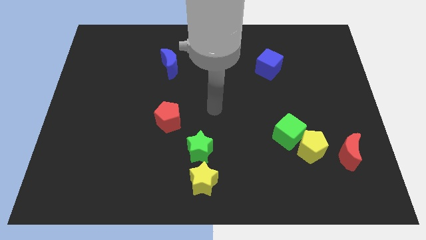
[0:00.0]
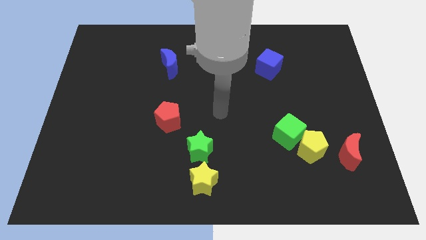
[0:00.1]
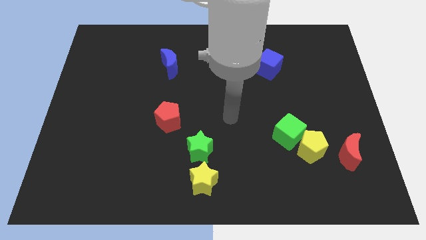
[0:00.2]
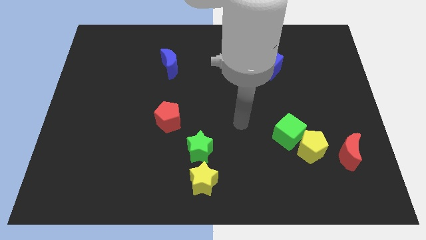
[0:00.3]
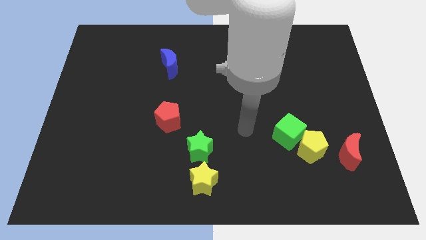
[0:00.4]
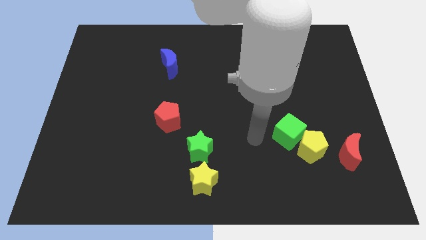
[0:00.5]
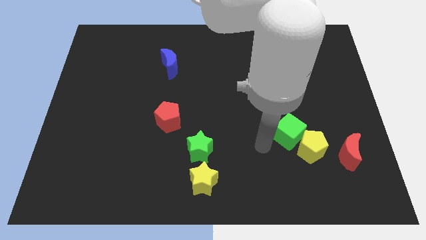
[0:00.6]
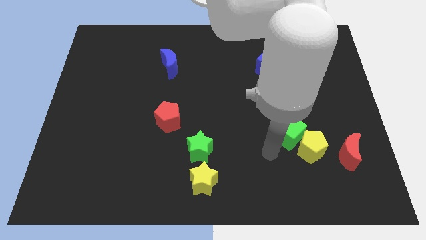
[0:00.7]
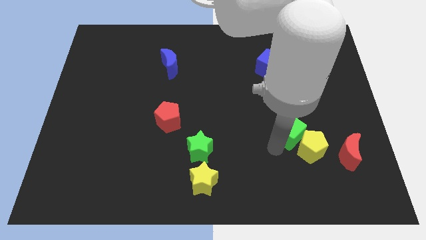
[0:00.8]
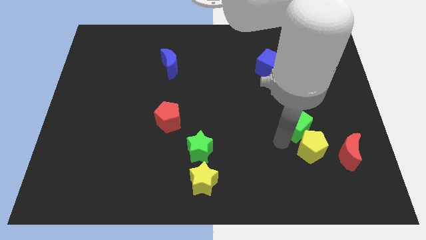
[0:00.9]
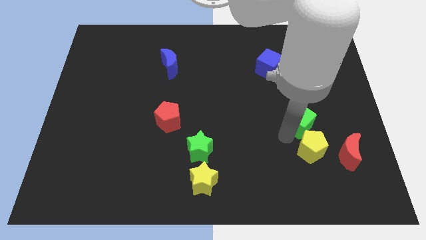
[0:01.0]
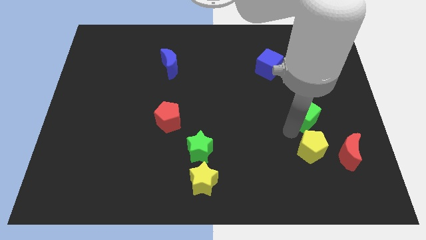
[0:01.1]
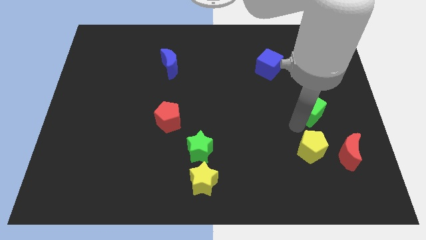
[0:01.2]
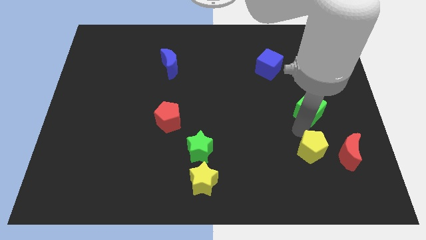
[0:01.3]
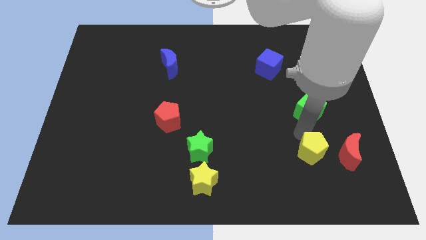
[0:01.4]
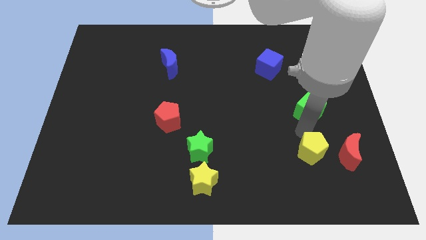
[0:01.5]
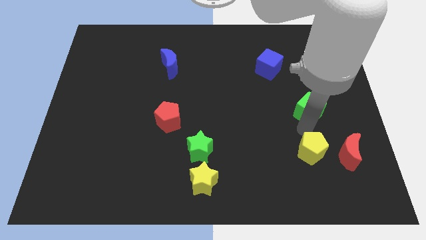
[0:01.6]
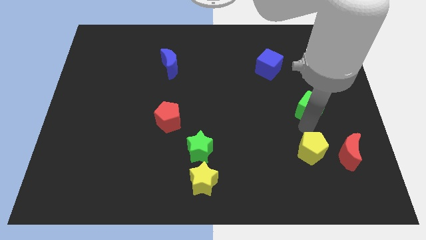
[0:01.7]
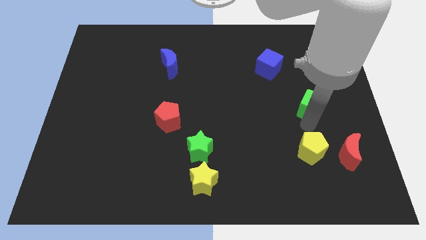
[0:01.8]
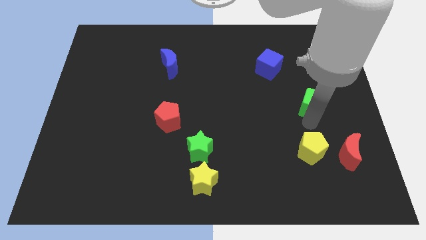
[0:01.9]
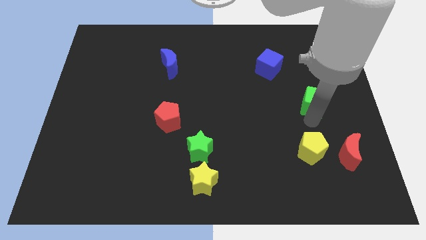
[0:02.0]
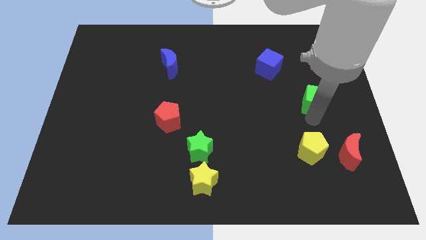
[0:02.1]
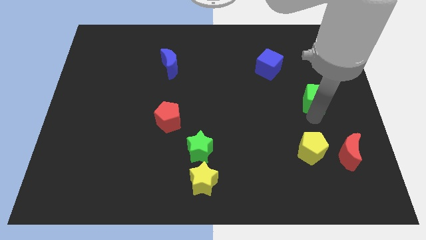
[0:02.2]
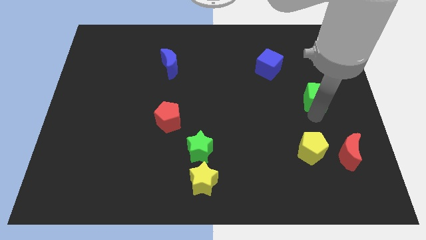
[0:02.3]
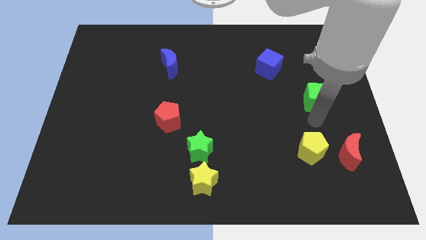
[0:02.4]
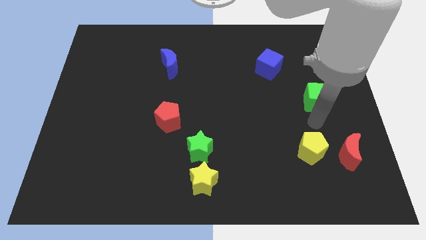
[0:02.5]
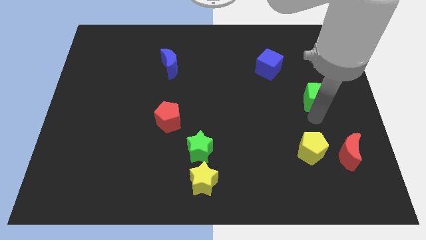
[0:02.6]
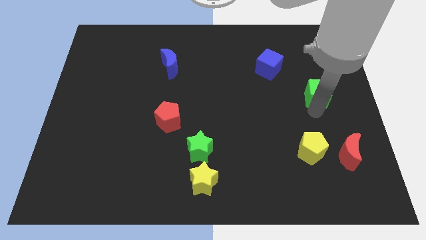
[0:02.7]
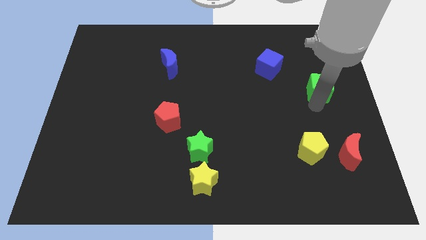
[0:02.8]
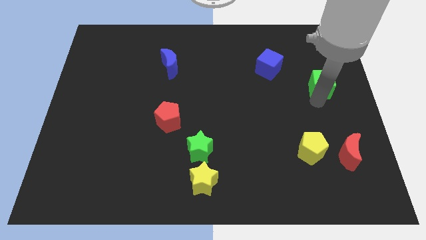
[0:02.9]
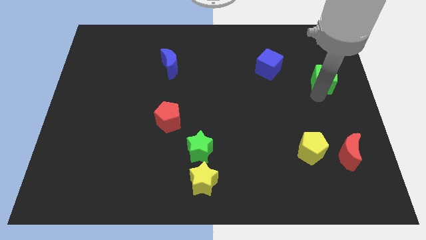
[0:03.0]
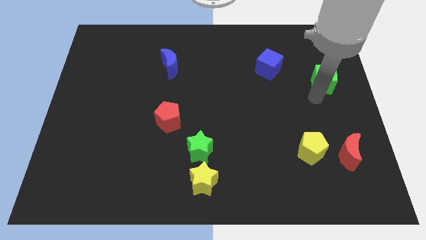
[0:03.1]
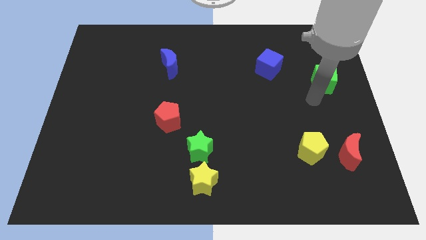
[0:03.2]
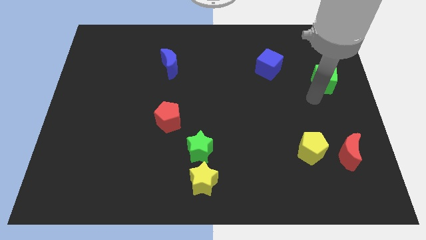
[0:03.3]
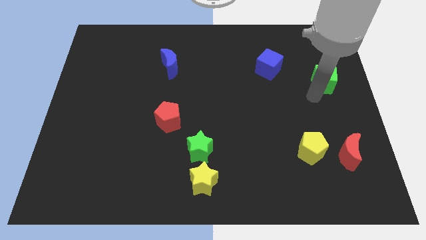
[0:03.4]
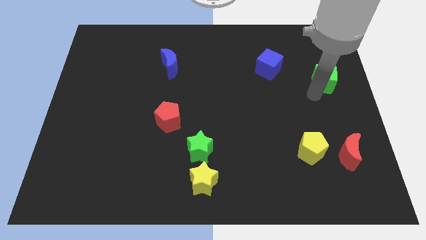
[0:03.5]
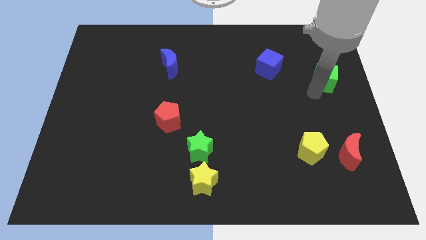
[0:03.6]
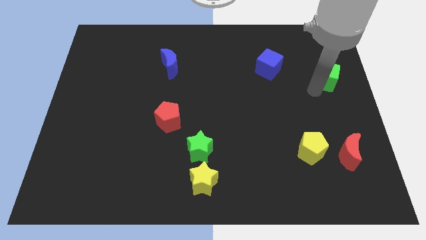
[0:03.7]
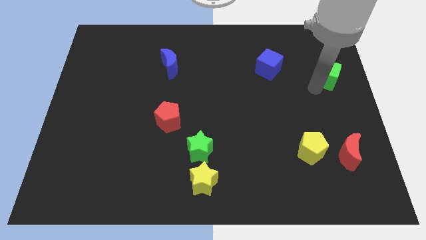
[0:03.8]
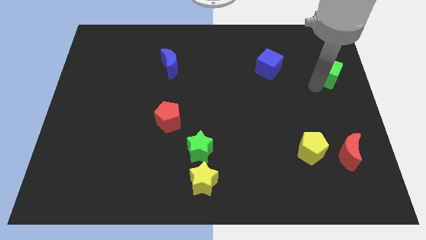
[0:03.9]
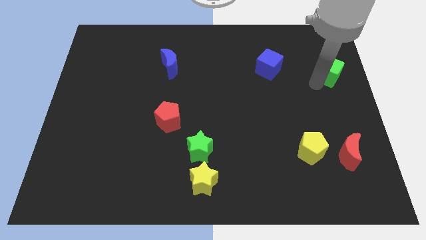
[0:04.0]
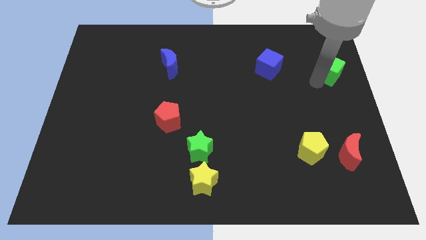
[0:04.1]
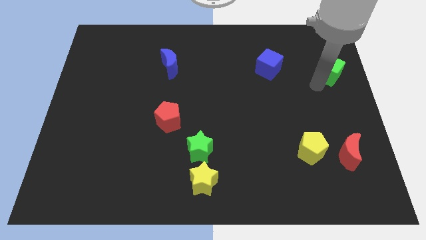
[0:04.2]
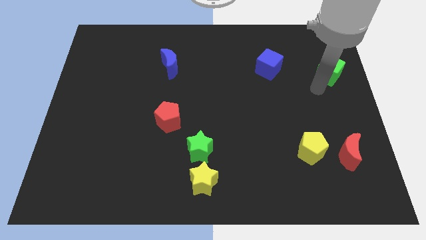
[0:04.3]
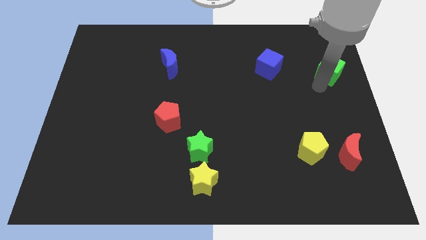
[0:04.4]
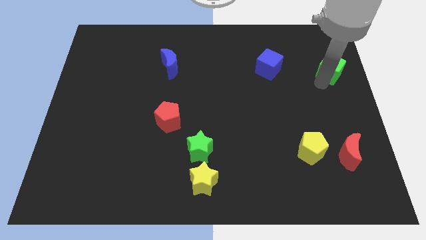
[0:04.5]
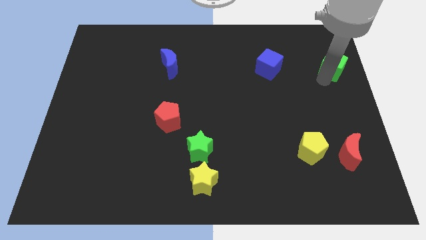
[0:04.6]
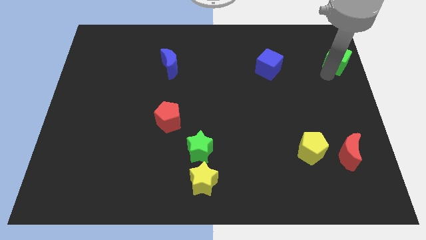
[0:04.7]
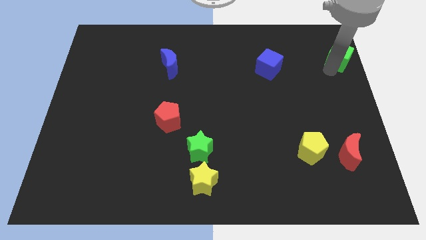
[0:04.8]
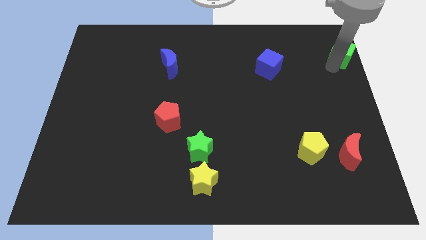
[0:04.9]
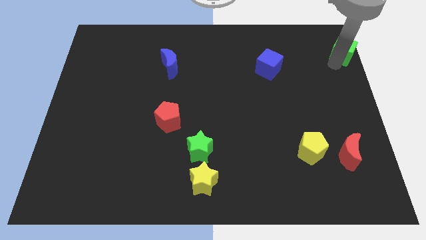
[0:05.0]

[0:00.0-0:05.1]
move the green cube to the top right corner

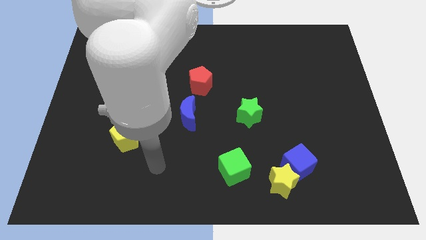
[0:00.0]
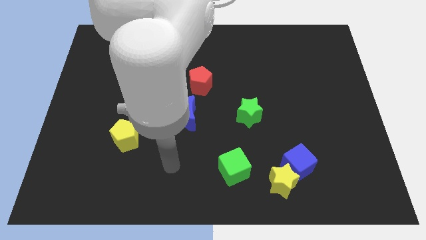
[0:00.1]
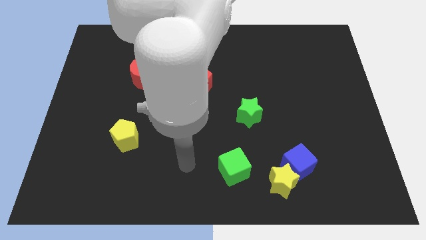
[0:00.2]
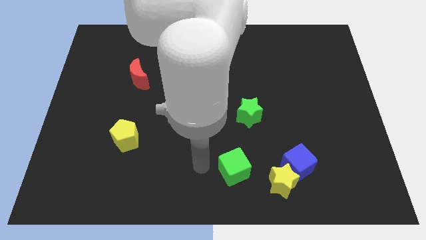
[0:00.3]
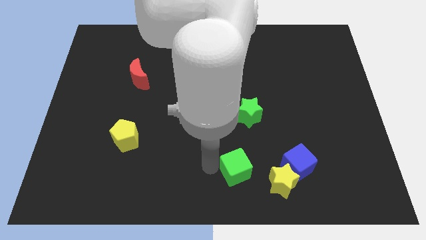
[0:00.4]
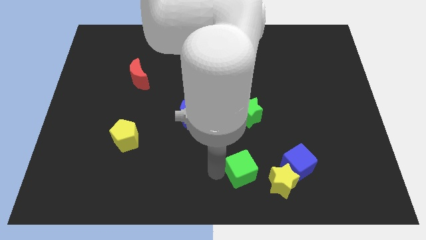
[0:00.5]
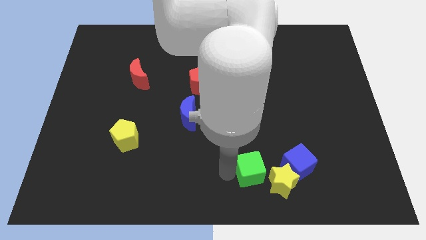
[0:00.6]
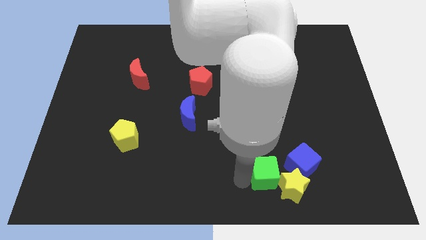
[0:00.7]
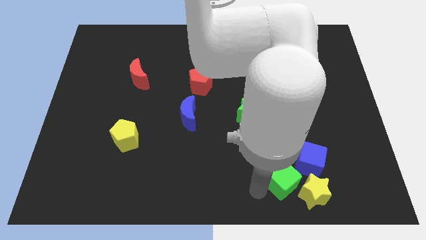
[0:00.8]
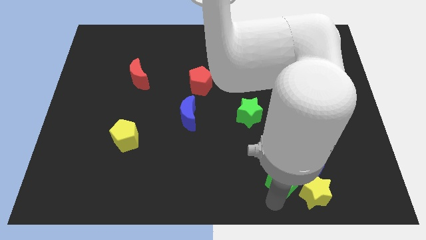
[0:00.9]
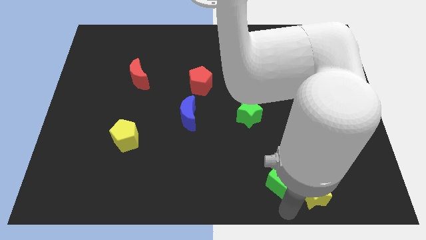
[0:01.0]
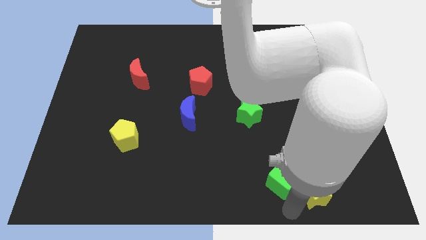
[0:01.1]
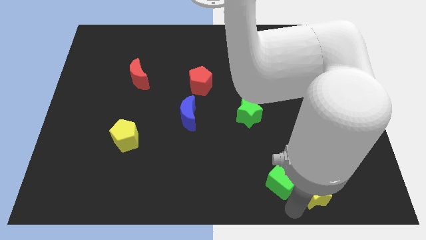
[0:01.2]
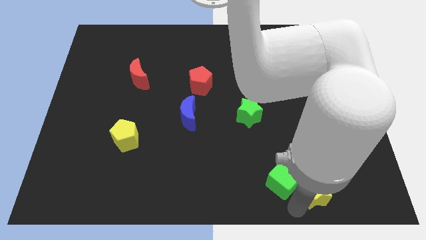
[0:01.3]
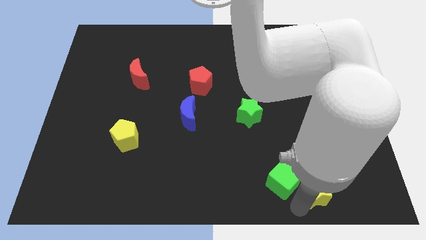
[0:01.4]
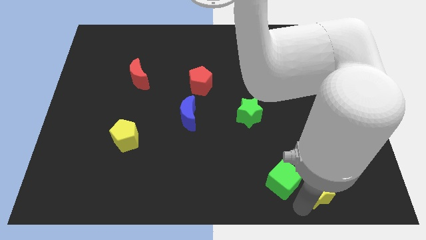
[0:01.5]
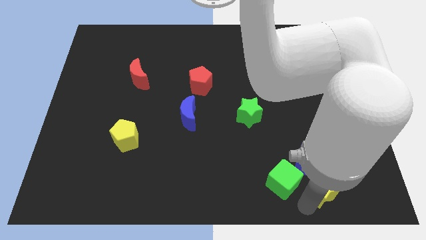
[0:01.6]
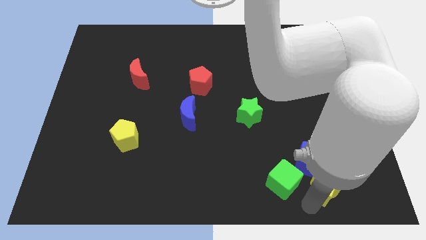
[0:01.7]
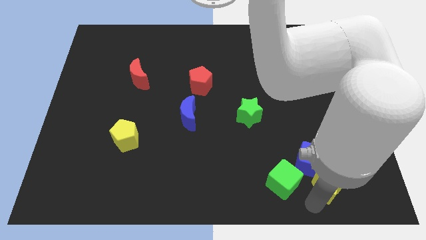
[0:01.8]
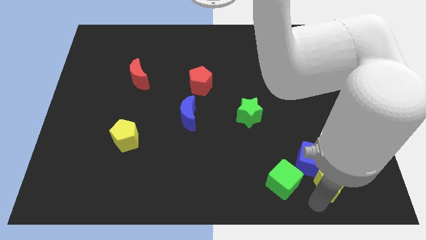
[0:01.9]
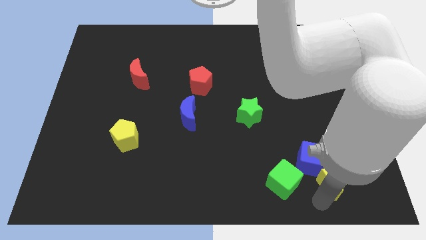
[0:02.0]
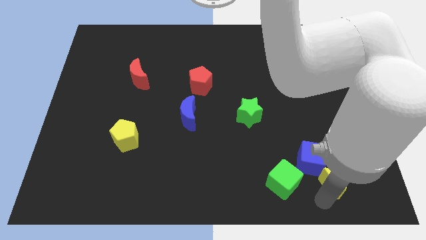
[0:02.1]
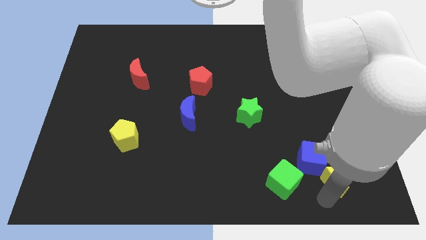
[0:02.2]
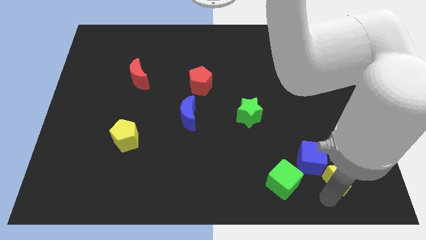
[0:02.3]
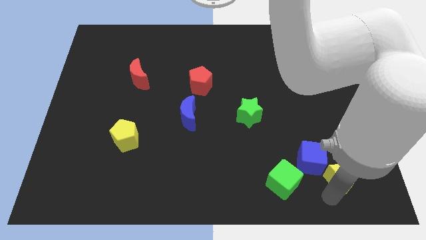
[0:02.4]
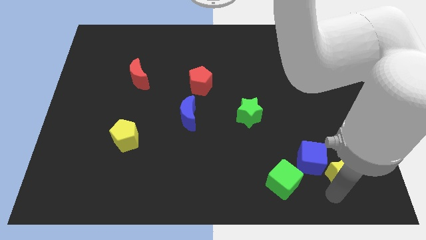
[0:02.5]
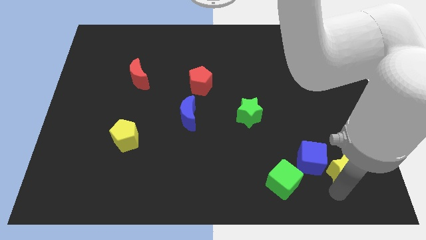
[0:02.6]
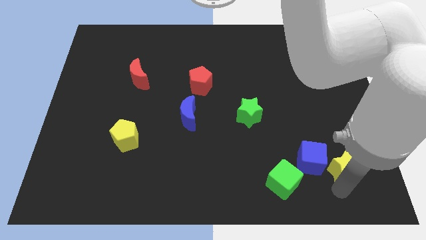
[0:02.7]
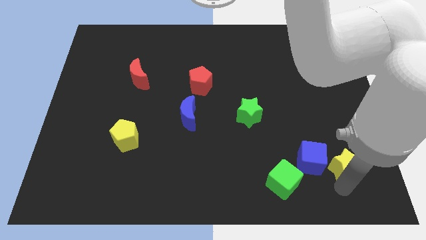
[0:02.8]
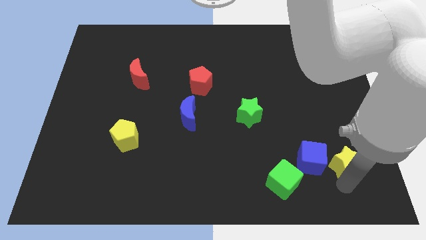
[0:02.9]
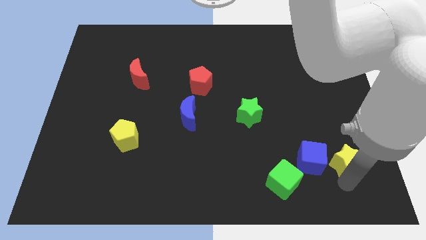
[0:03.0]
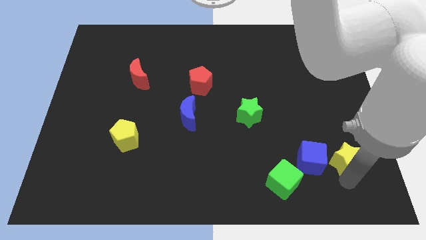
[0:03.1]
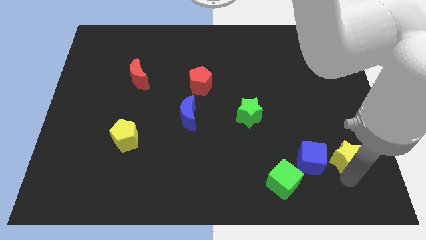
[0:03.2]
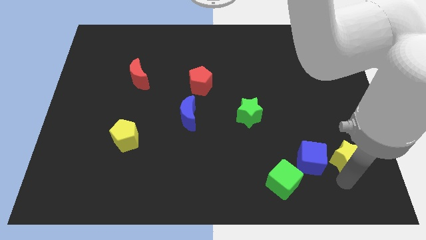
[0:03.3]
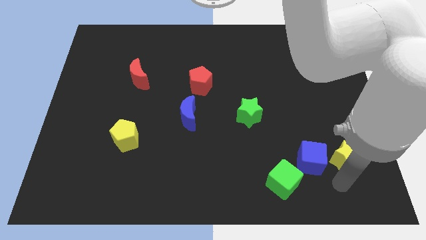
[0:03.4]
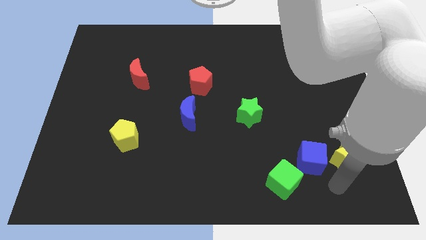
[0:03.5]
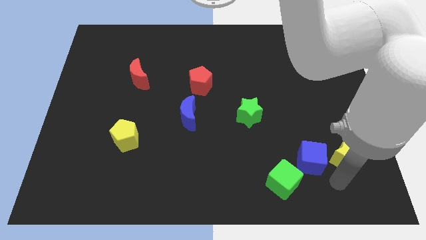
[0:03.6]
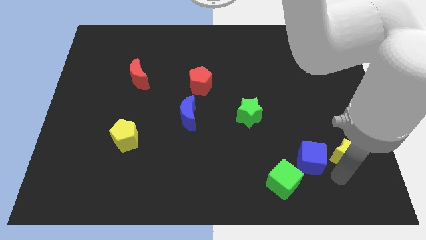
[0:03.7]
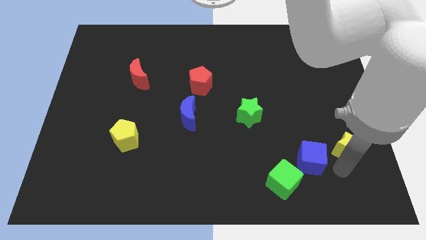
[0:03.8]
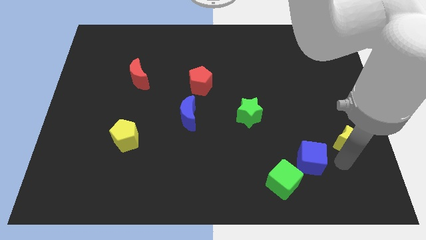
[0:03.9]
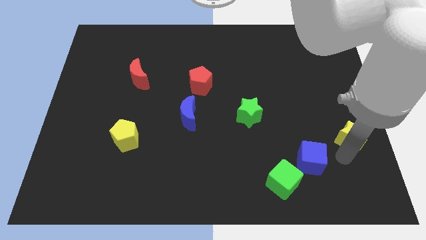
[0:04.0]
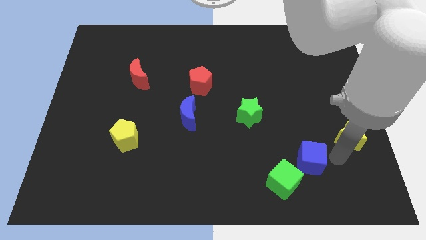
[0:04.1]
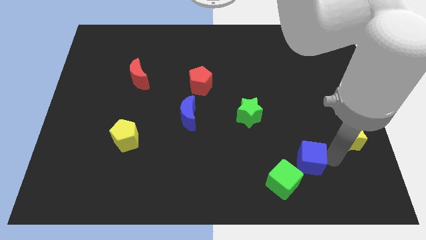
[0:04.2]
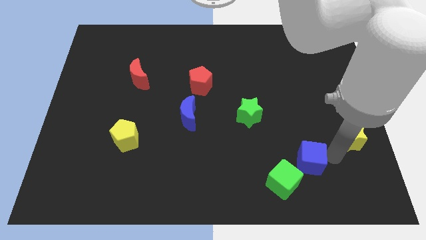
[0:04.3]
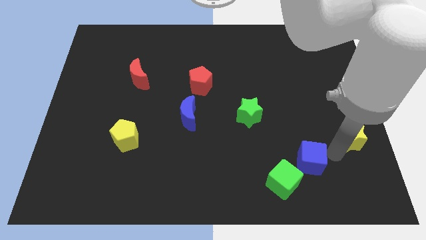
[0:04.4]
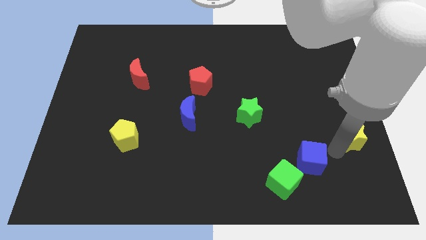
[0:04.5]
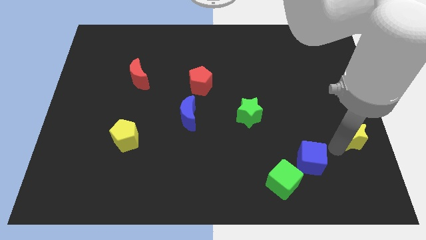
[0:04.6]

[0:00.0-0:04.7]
push the yellow star to the right side
